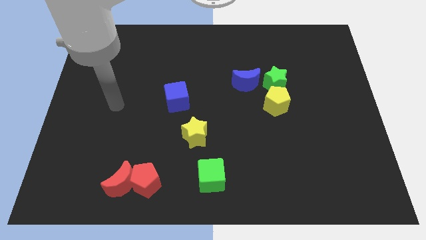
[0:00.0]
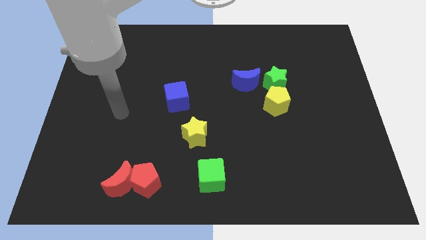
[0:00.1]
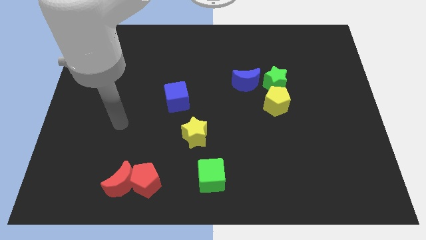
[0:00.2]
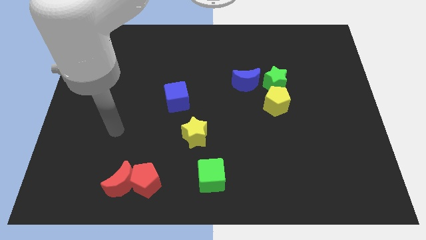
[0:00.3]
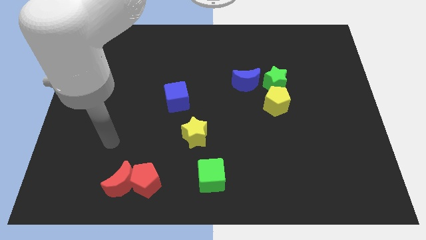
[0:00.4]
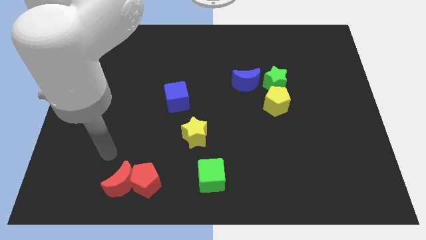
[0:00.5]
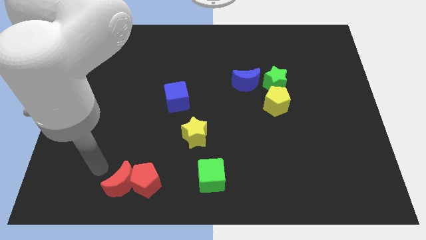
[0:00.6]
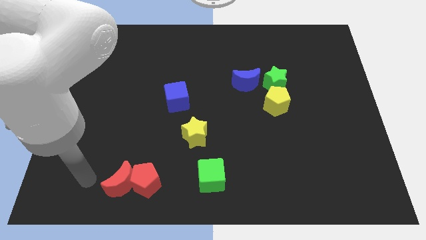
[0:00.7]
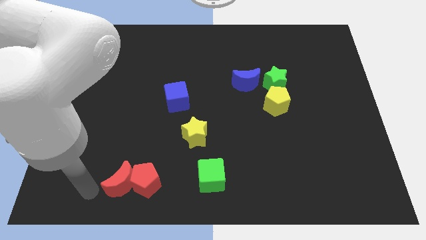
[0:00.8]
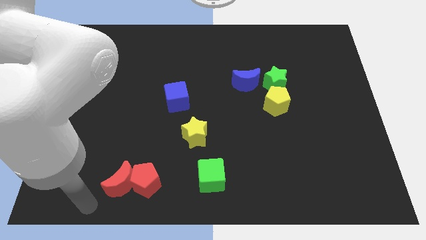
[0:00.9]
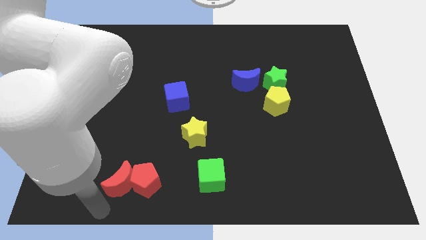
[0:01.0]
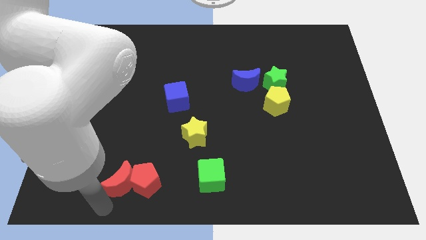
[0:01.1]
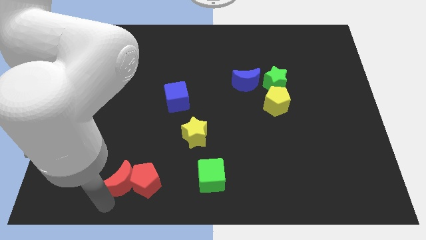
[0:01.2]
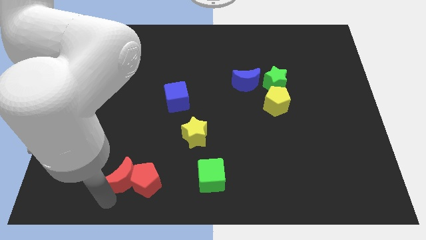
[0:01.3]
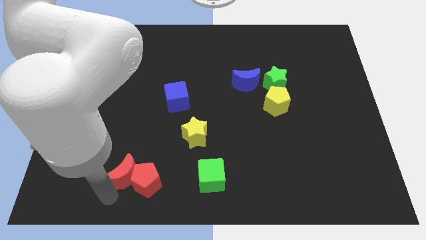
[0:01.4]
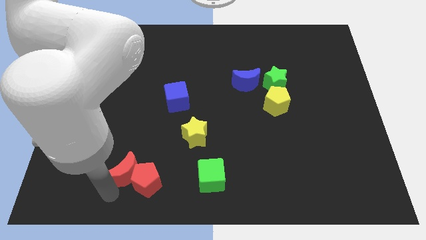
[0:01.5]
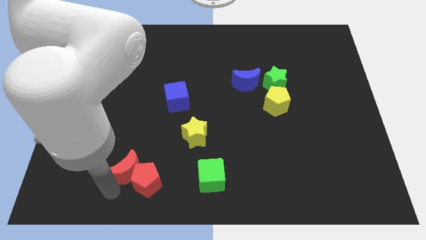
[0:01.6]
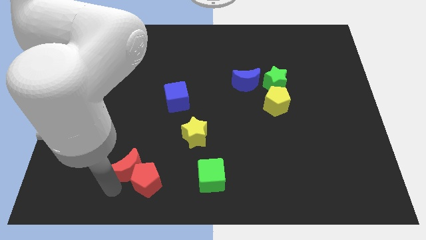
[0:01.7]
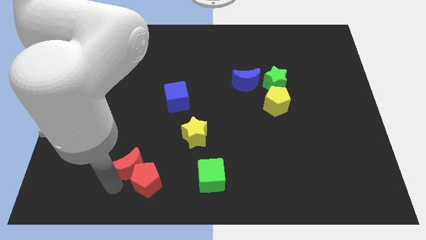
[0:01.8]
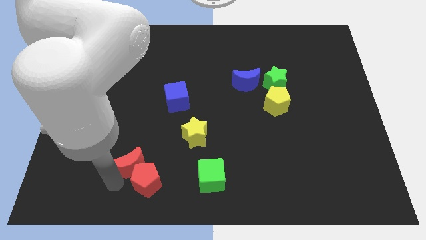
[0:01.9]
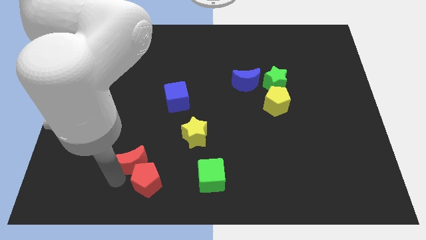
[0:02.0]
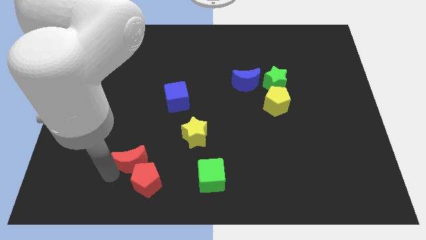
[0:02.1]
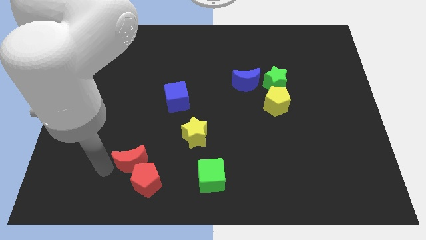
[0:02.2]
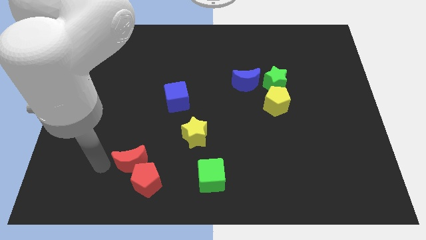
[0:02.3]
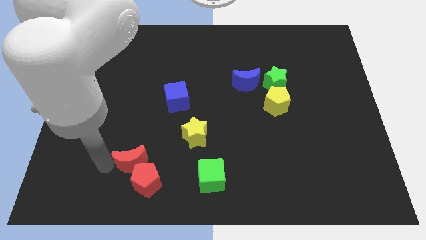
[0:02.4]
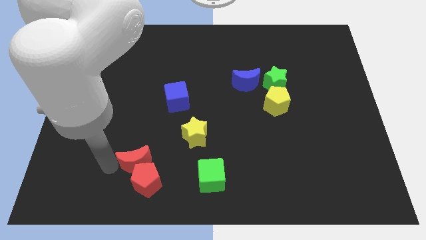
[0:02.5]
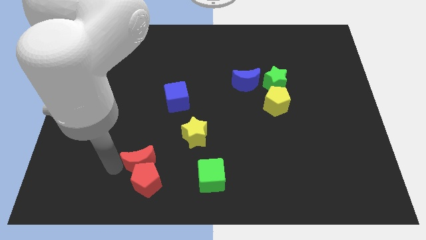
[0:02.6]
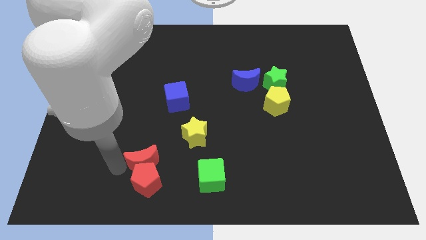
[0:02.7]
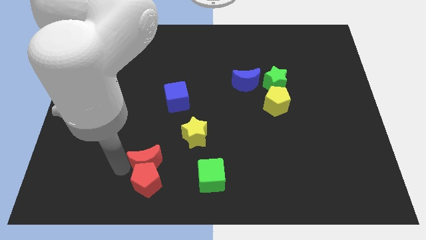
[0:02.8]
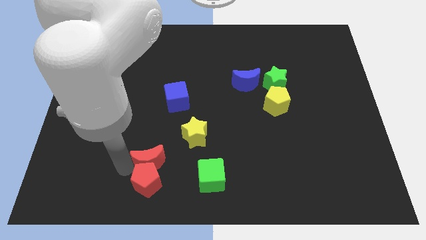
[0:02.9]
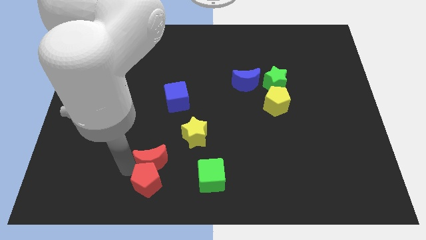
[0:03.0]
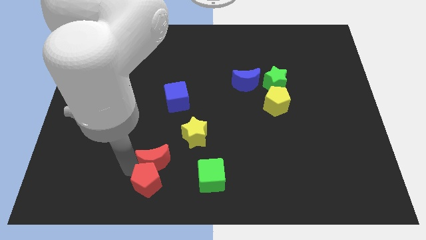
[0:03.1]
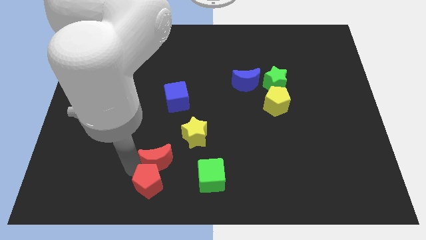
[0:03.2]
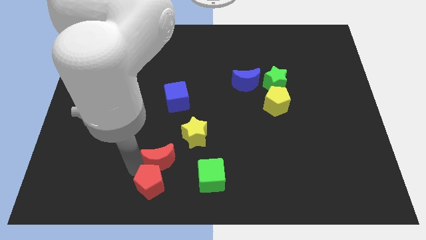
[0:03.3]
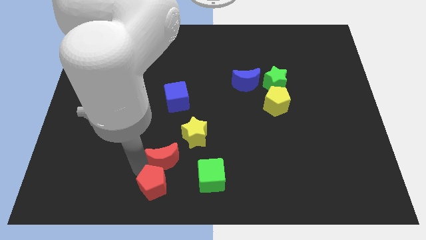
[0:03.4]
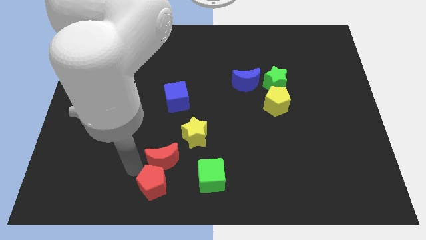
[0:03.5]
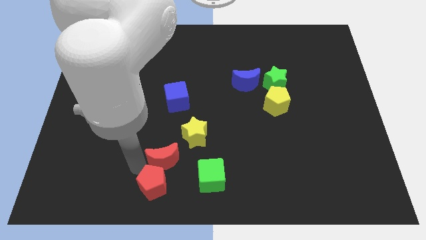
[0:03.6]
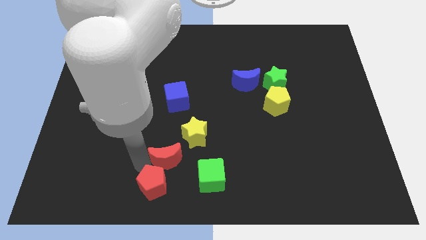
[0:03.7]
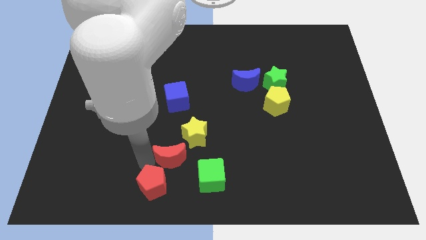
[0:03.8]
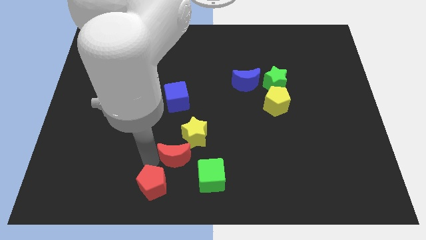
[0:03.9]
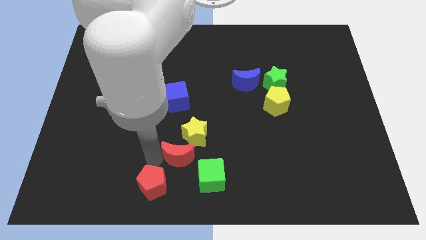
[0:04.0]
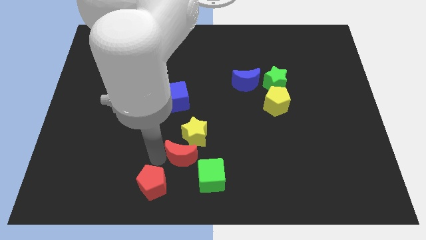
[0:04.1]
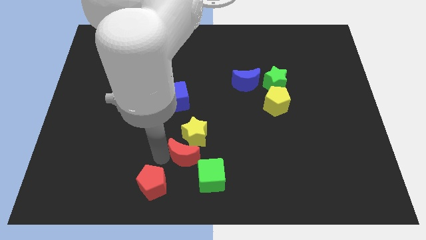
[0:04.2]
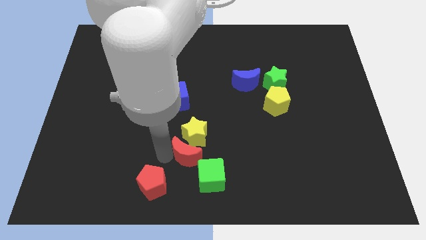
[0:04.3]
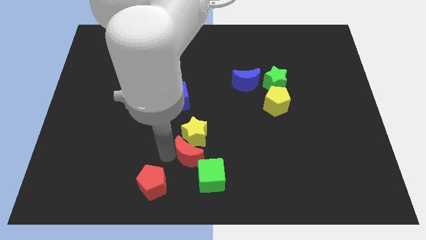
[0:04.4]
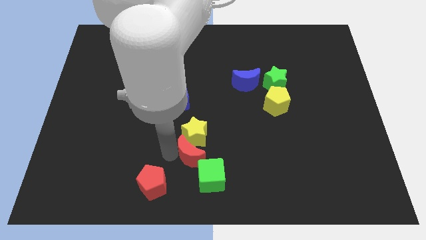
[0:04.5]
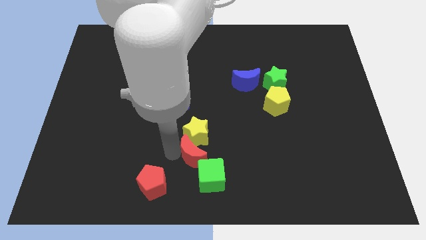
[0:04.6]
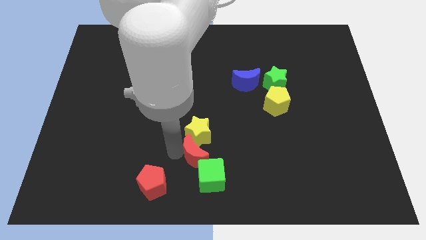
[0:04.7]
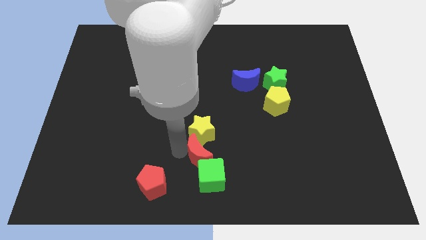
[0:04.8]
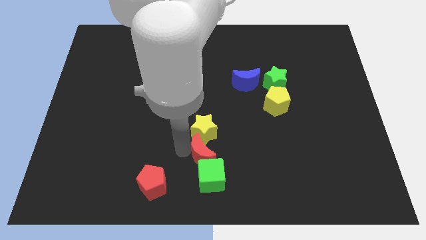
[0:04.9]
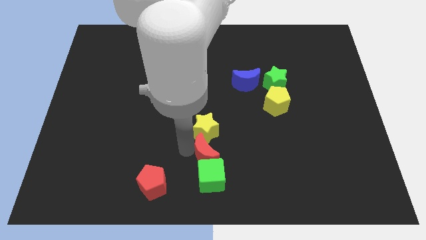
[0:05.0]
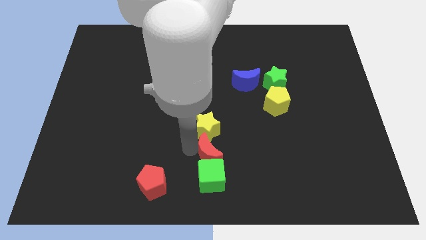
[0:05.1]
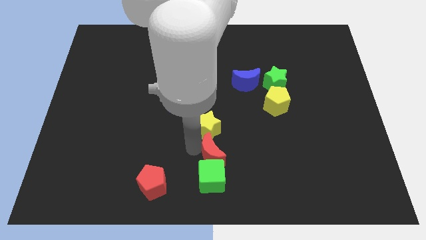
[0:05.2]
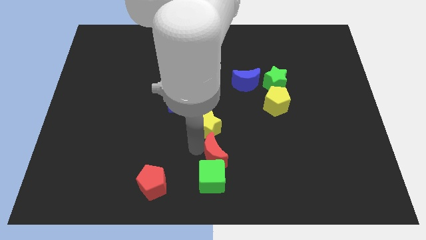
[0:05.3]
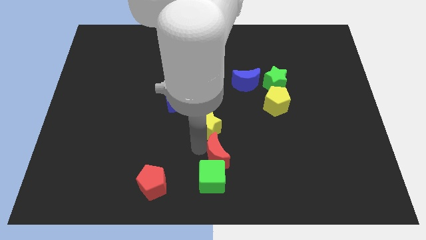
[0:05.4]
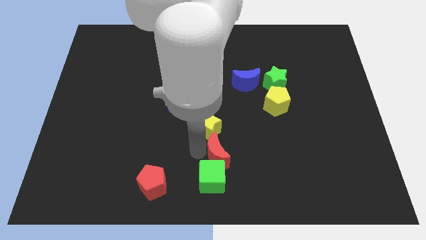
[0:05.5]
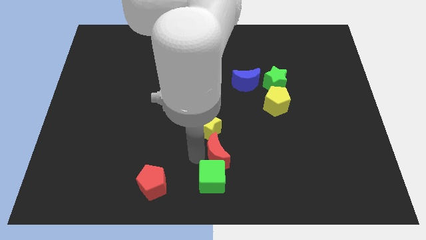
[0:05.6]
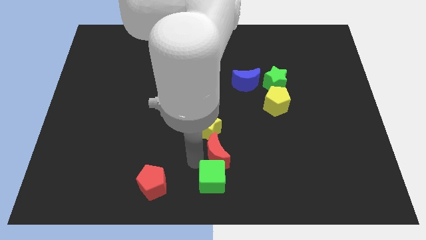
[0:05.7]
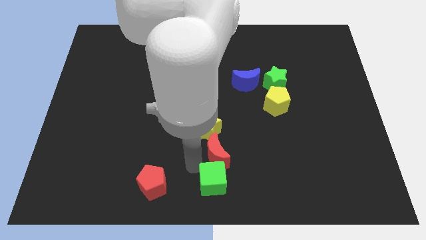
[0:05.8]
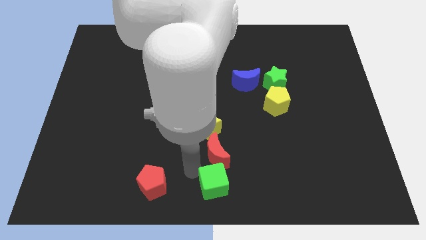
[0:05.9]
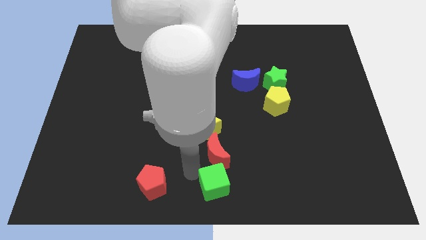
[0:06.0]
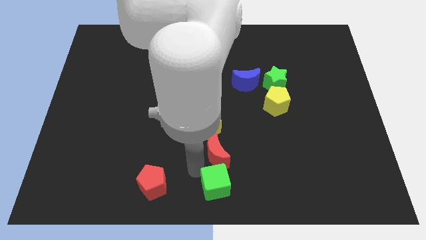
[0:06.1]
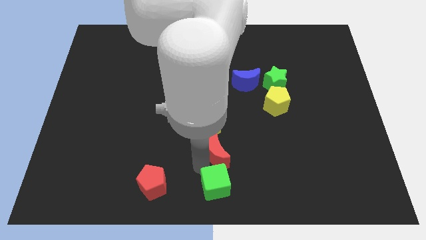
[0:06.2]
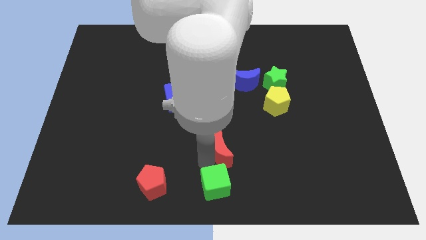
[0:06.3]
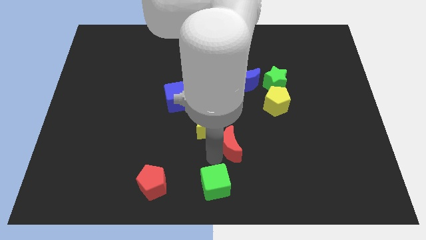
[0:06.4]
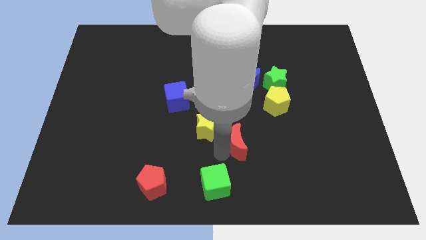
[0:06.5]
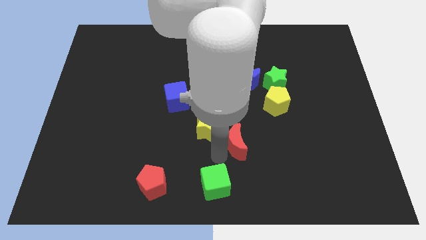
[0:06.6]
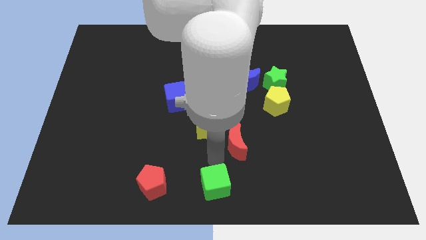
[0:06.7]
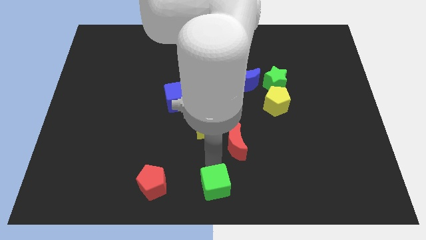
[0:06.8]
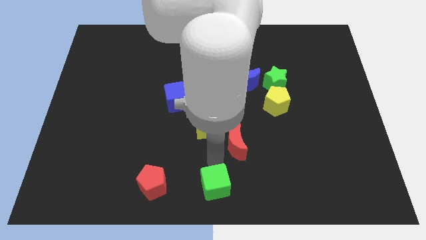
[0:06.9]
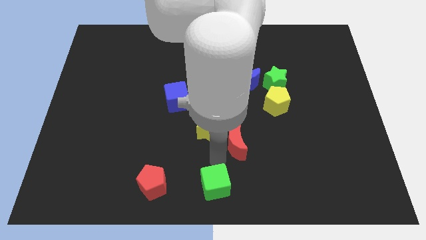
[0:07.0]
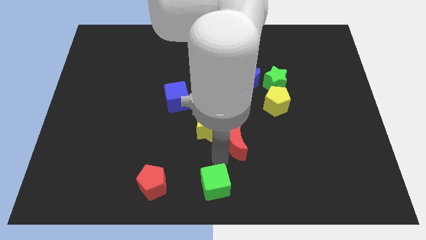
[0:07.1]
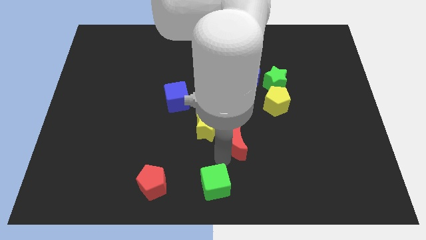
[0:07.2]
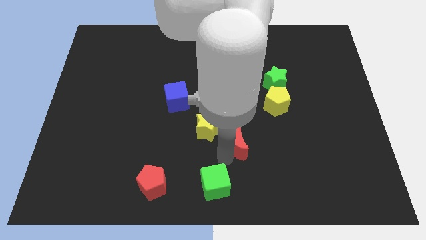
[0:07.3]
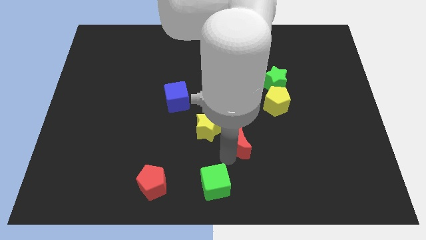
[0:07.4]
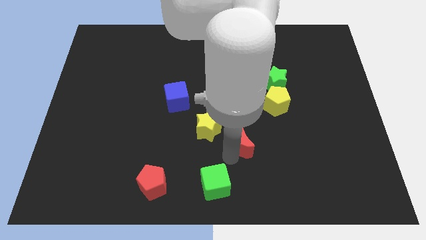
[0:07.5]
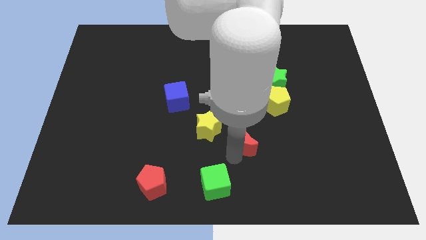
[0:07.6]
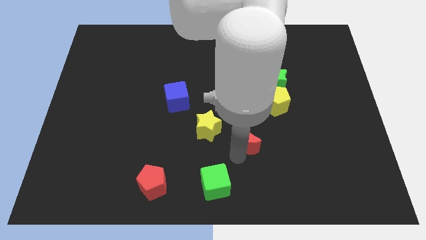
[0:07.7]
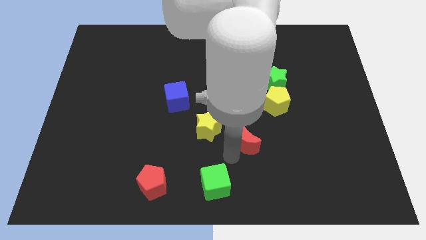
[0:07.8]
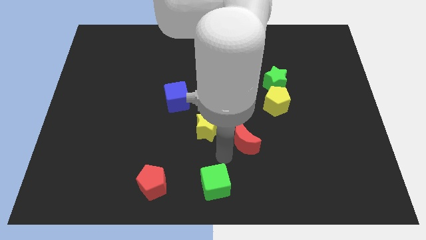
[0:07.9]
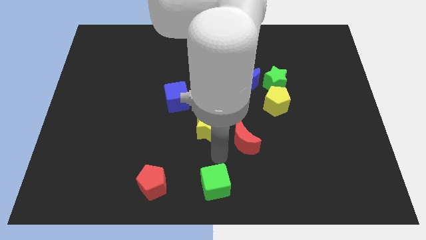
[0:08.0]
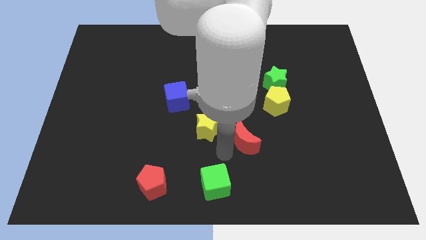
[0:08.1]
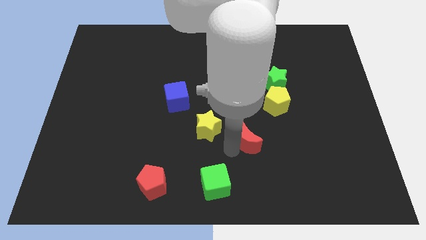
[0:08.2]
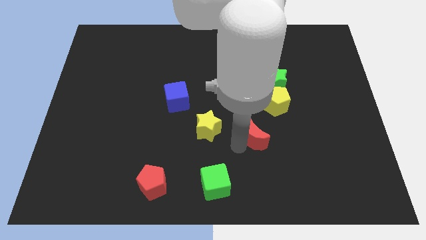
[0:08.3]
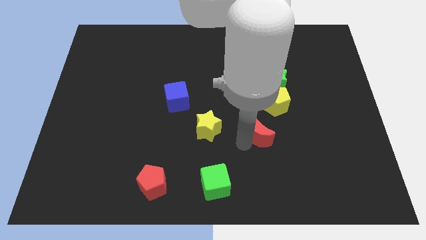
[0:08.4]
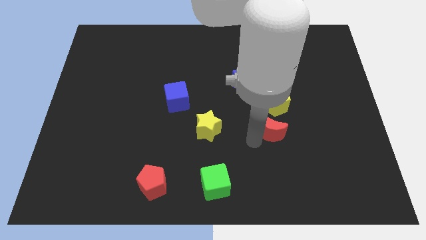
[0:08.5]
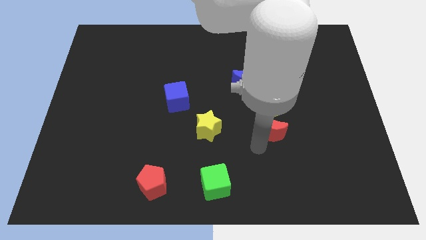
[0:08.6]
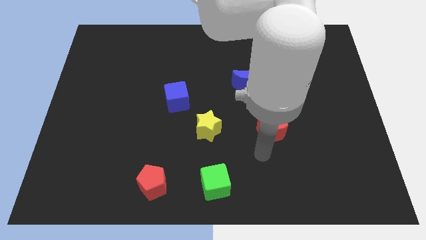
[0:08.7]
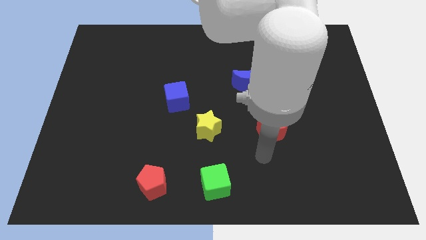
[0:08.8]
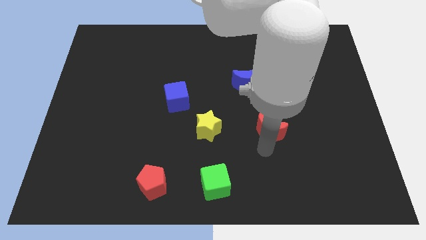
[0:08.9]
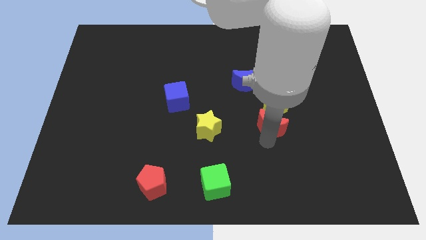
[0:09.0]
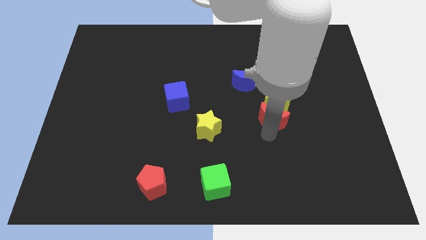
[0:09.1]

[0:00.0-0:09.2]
push the red moon towards the yellow pentagon
